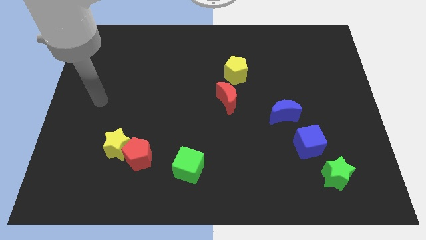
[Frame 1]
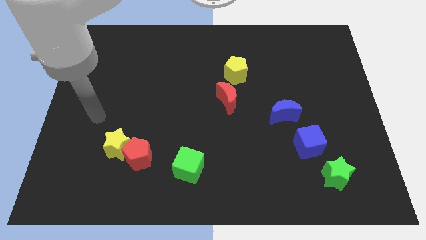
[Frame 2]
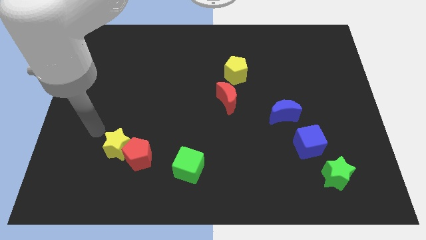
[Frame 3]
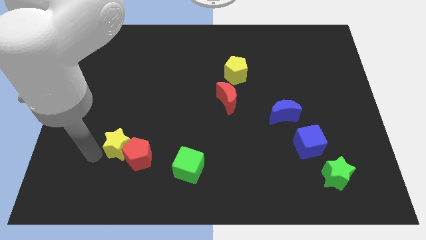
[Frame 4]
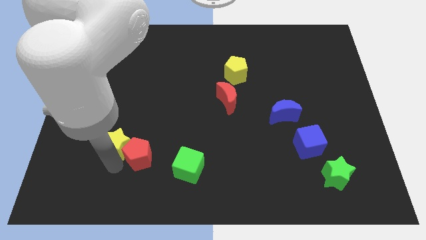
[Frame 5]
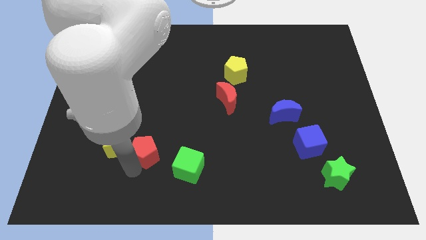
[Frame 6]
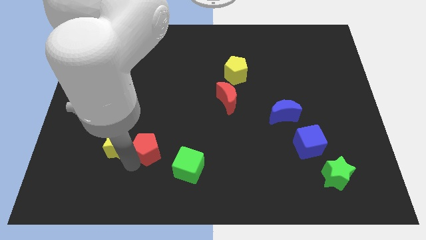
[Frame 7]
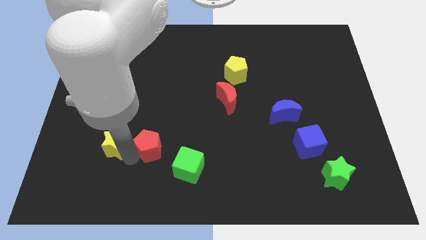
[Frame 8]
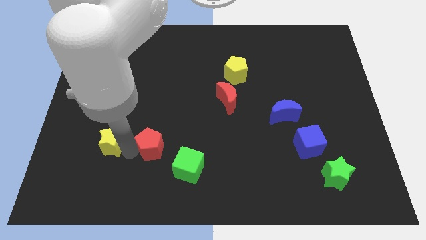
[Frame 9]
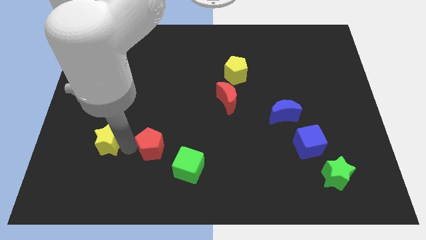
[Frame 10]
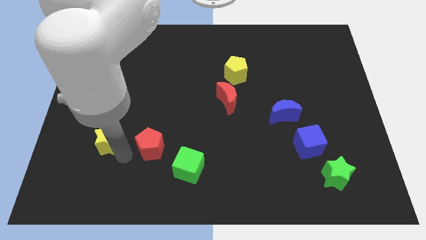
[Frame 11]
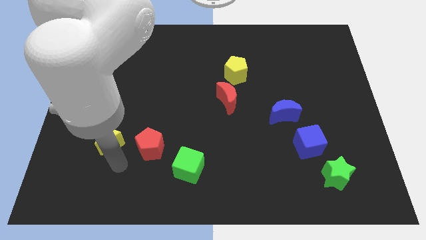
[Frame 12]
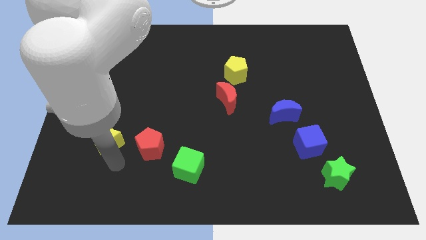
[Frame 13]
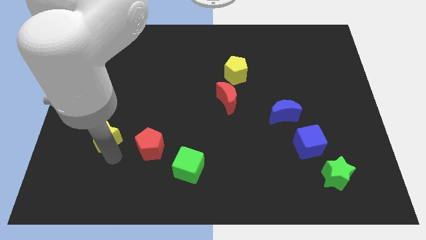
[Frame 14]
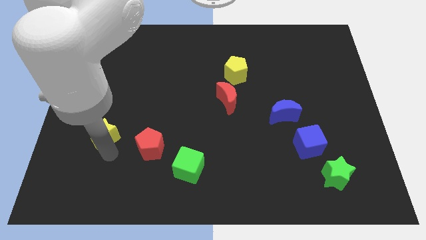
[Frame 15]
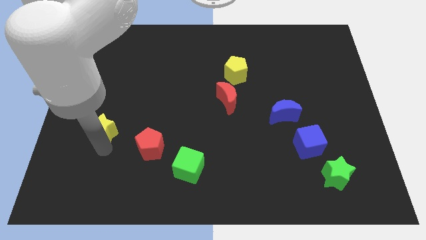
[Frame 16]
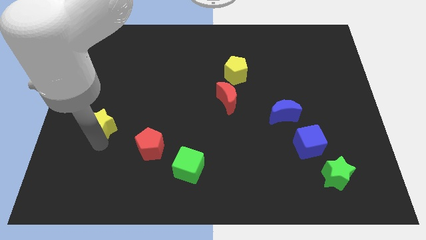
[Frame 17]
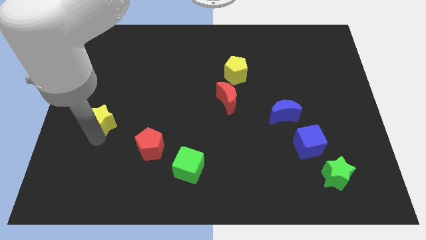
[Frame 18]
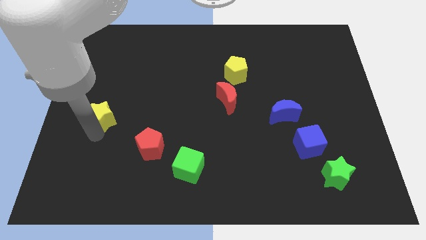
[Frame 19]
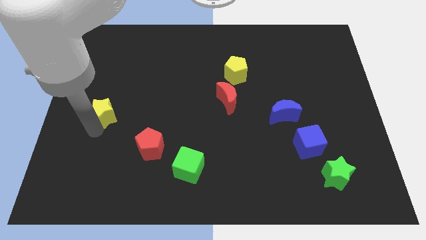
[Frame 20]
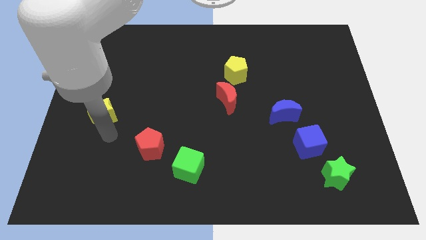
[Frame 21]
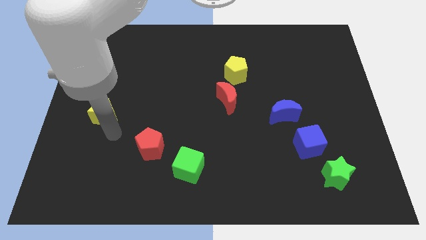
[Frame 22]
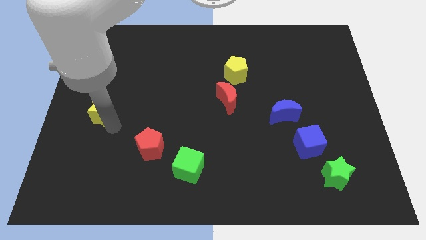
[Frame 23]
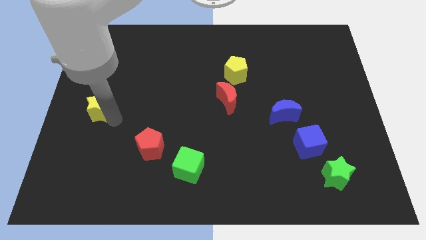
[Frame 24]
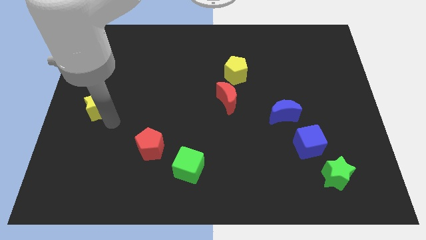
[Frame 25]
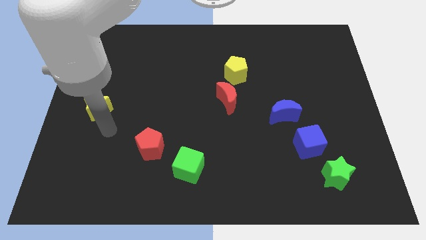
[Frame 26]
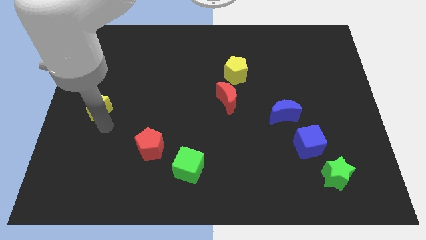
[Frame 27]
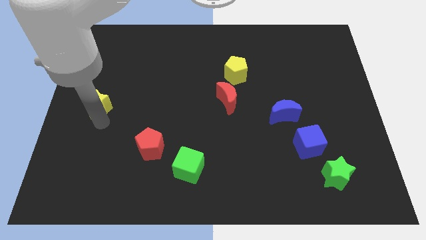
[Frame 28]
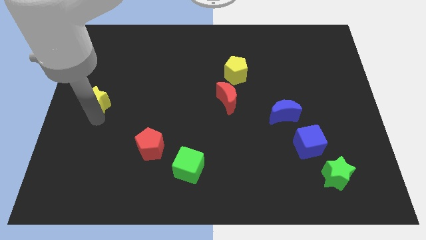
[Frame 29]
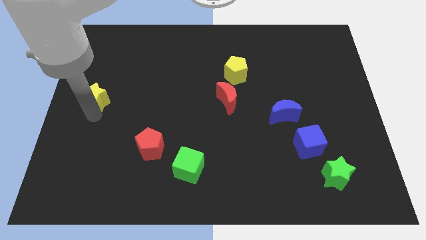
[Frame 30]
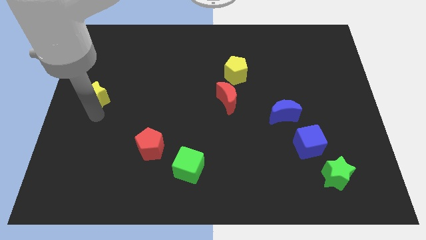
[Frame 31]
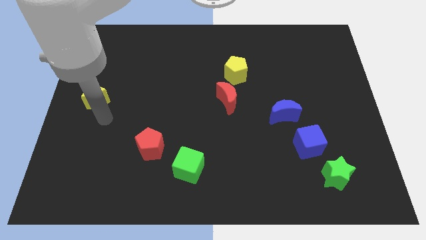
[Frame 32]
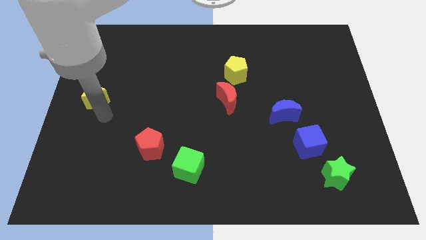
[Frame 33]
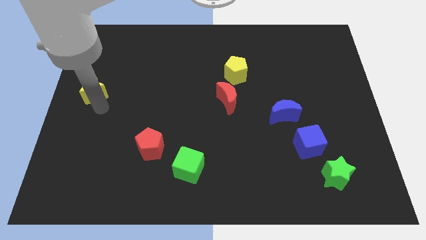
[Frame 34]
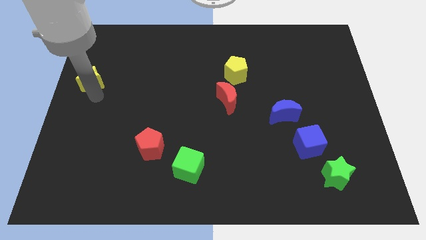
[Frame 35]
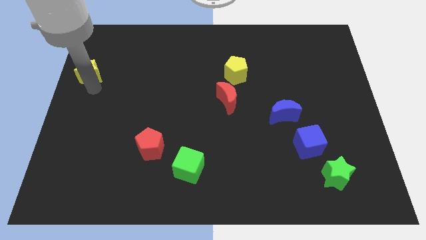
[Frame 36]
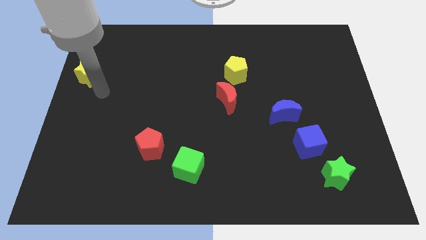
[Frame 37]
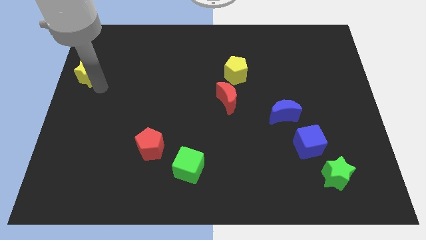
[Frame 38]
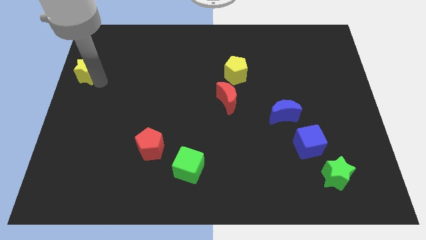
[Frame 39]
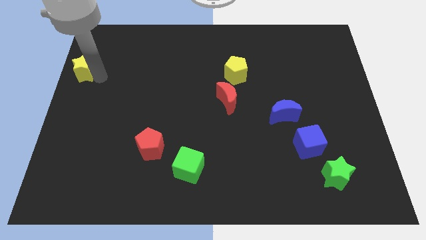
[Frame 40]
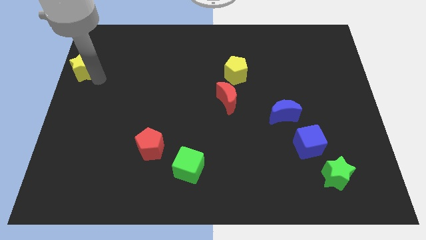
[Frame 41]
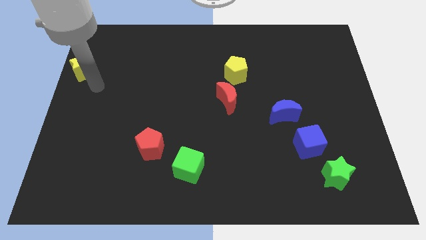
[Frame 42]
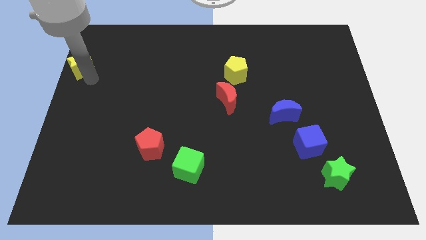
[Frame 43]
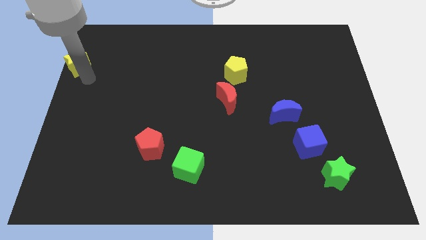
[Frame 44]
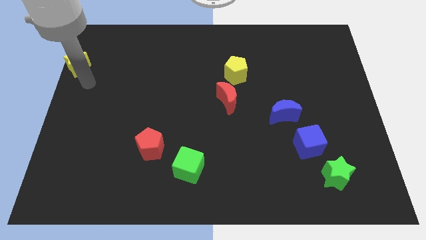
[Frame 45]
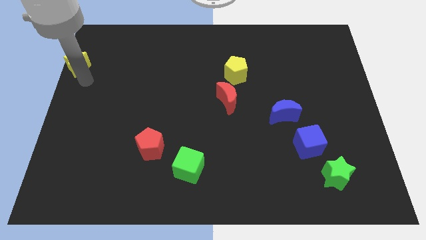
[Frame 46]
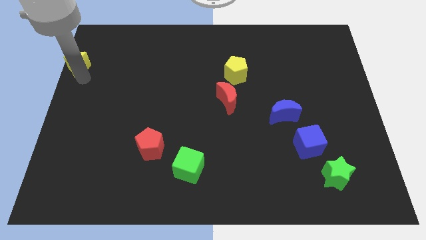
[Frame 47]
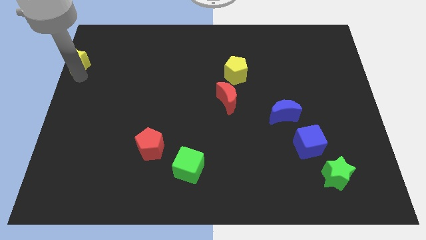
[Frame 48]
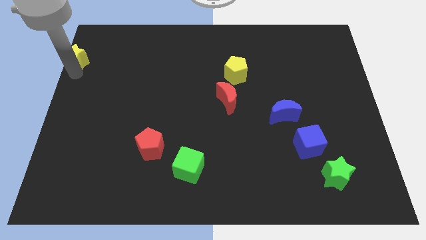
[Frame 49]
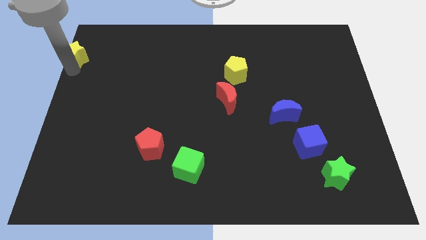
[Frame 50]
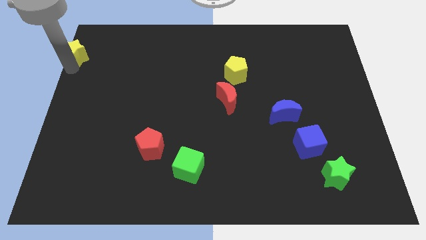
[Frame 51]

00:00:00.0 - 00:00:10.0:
slide the yellow star to the top left corner

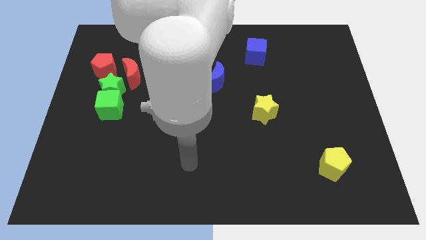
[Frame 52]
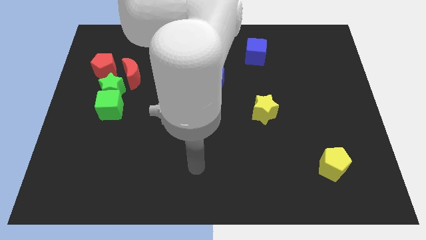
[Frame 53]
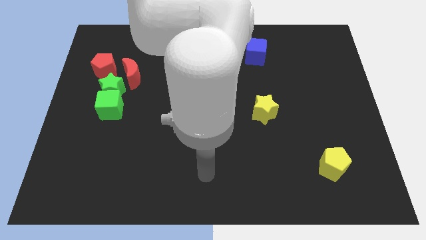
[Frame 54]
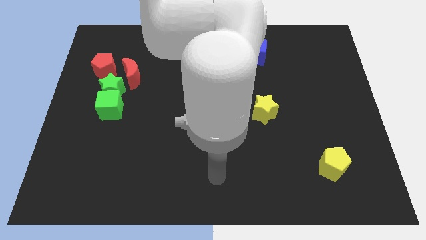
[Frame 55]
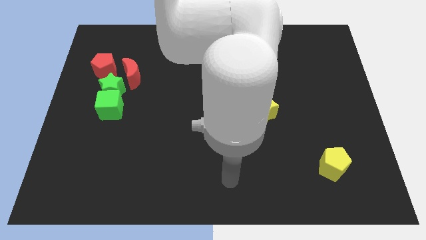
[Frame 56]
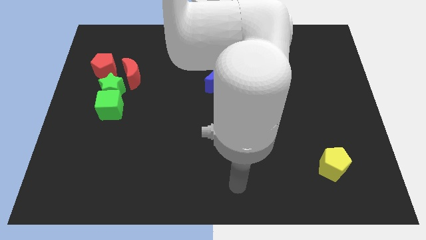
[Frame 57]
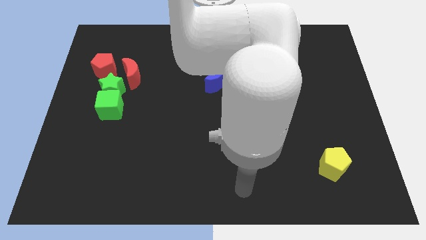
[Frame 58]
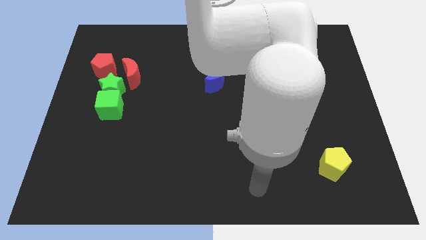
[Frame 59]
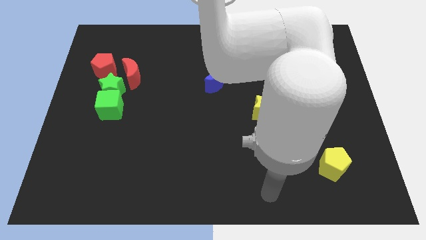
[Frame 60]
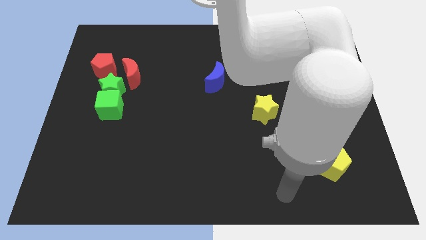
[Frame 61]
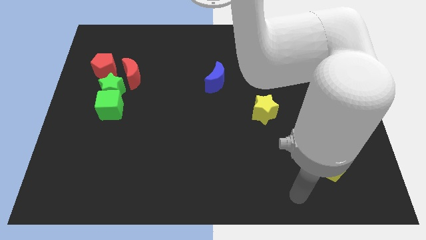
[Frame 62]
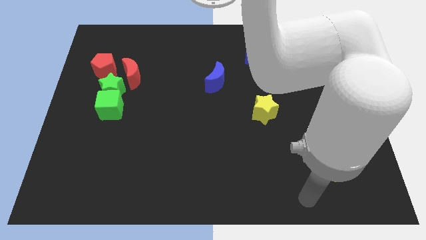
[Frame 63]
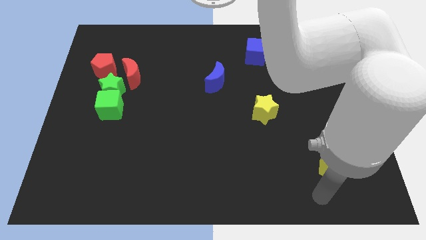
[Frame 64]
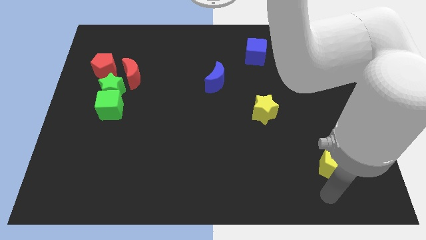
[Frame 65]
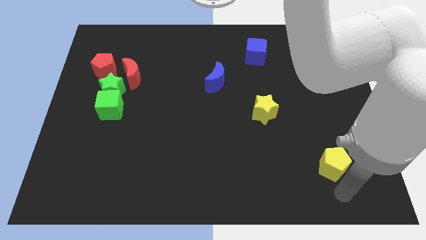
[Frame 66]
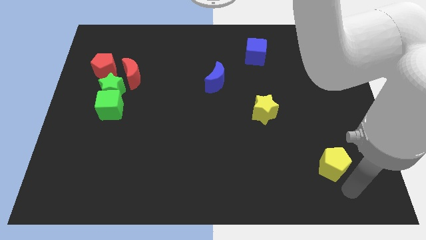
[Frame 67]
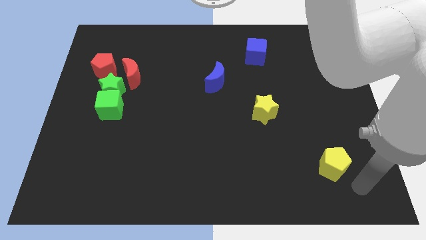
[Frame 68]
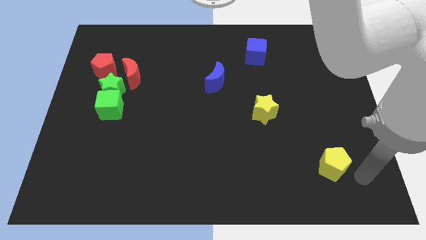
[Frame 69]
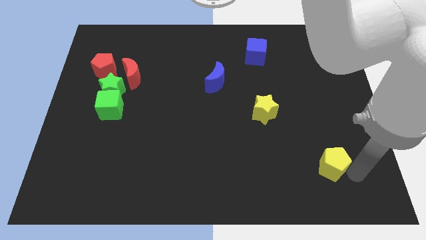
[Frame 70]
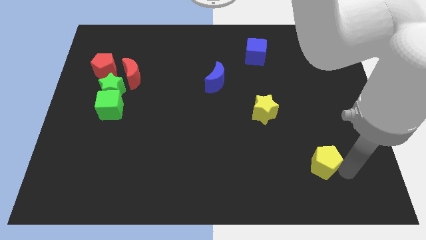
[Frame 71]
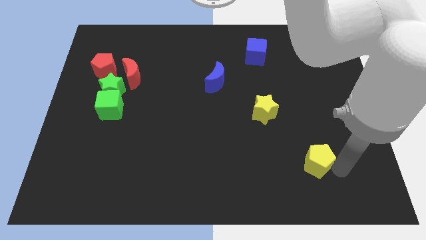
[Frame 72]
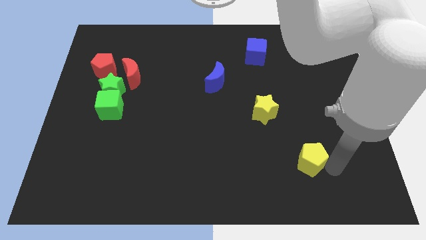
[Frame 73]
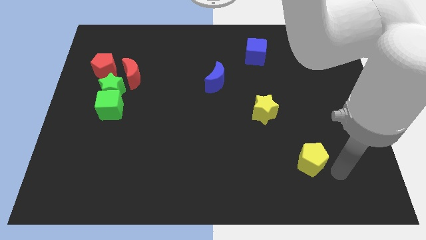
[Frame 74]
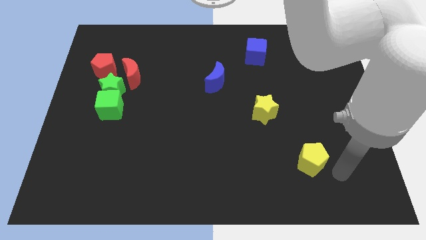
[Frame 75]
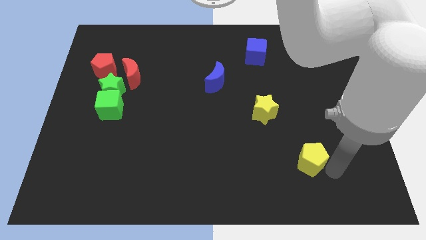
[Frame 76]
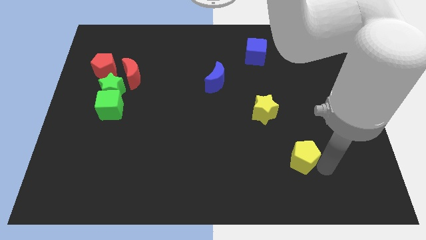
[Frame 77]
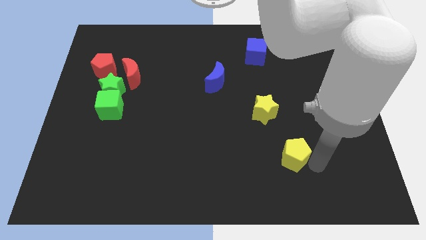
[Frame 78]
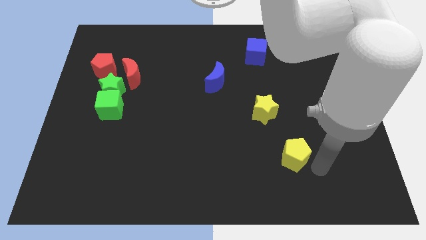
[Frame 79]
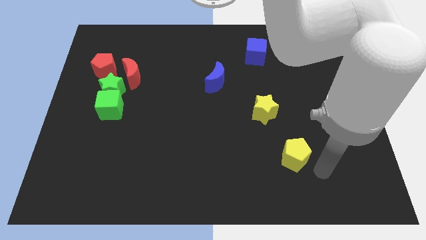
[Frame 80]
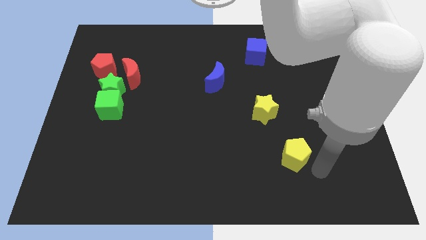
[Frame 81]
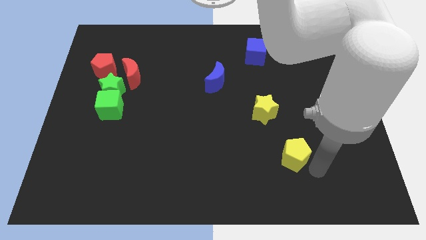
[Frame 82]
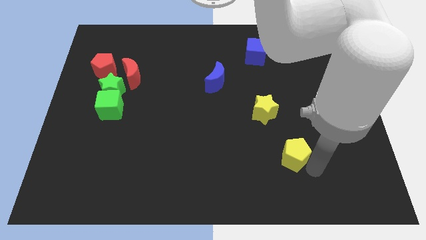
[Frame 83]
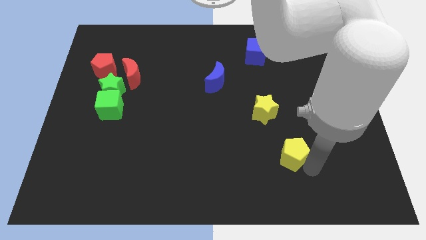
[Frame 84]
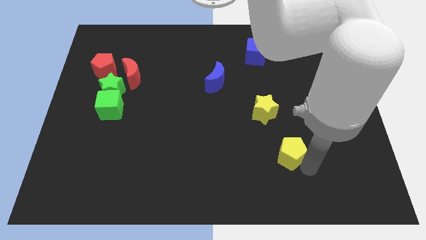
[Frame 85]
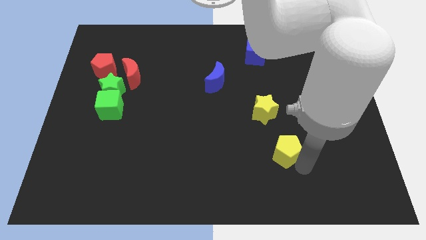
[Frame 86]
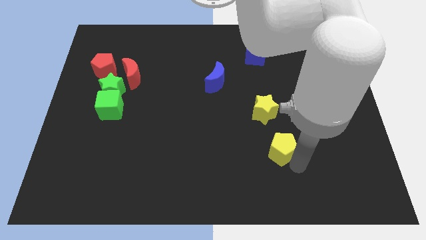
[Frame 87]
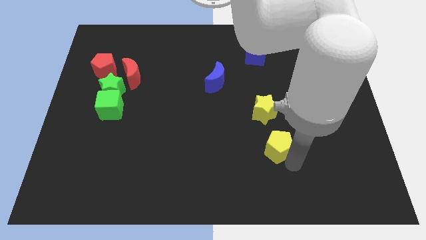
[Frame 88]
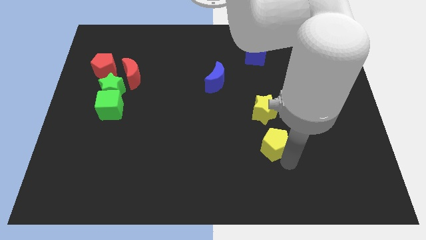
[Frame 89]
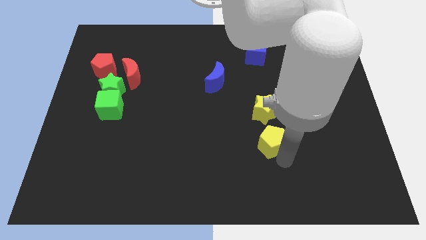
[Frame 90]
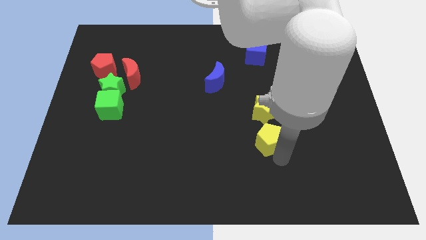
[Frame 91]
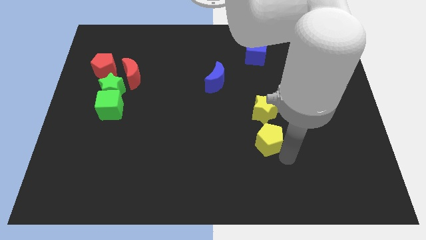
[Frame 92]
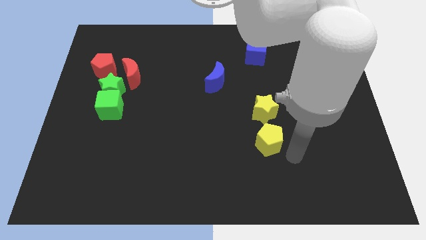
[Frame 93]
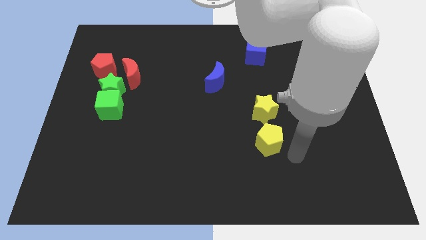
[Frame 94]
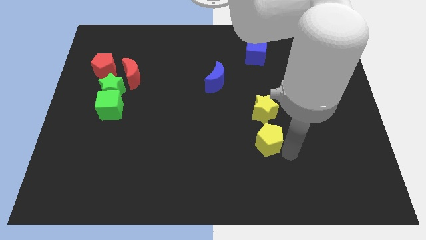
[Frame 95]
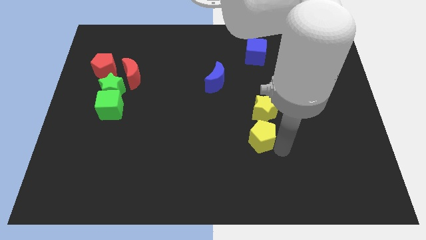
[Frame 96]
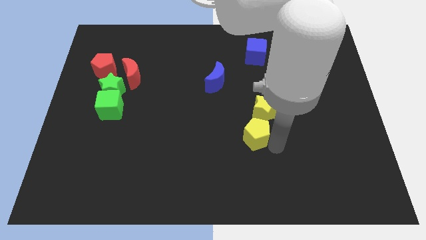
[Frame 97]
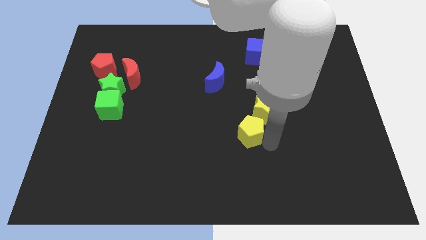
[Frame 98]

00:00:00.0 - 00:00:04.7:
slide the yellow pentagon to the center
